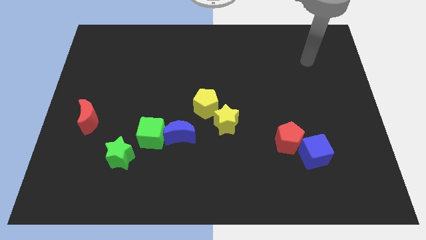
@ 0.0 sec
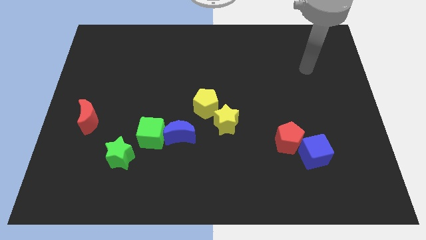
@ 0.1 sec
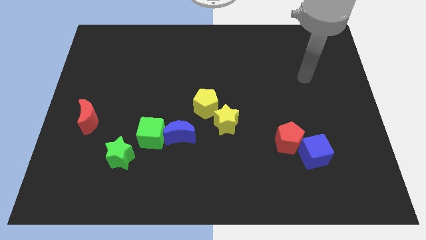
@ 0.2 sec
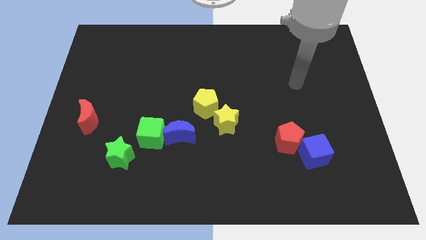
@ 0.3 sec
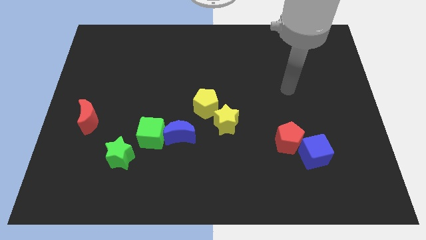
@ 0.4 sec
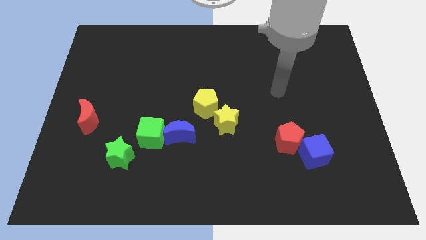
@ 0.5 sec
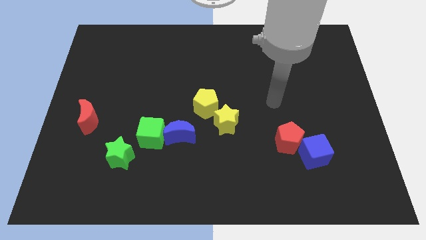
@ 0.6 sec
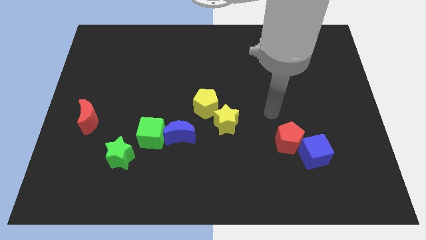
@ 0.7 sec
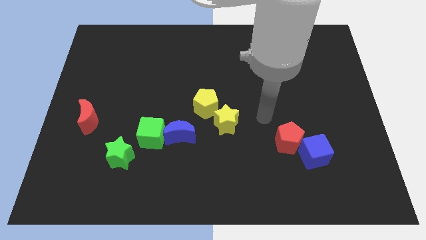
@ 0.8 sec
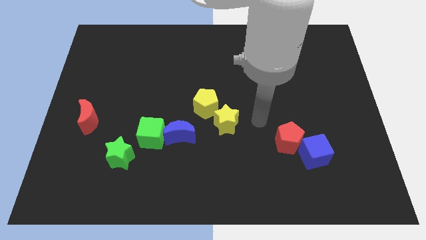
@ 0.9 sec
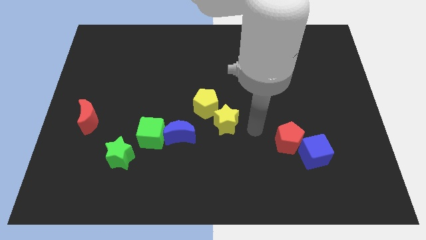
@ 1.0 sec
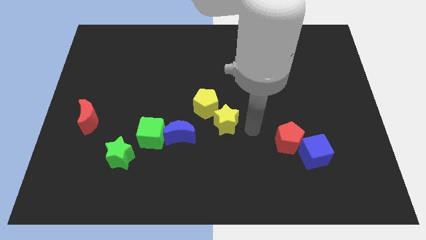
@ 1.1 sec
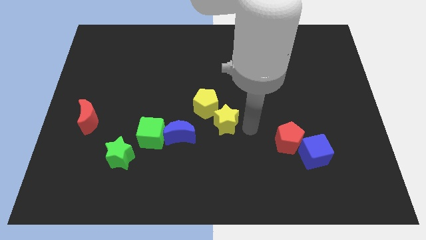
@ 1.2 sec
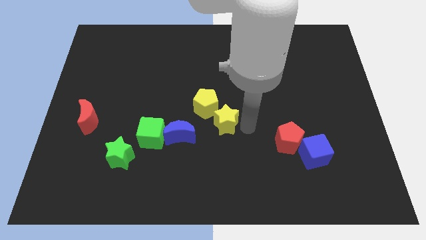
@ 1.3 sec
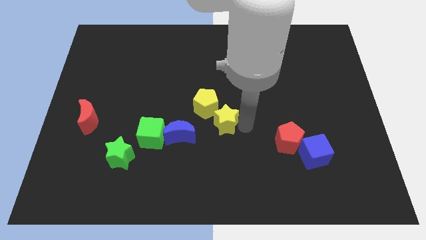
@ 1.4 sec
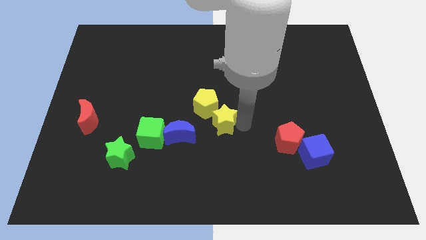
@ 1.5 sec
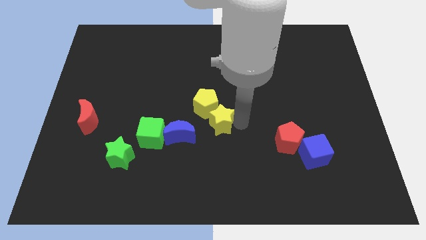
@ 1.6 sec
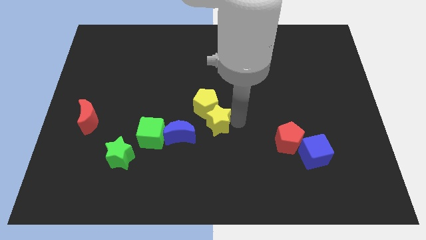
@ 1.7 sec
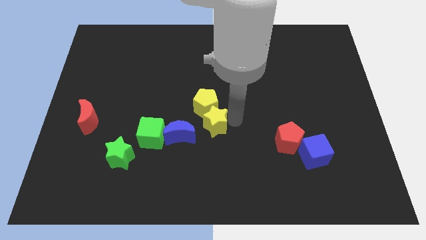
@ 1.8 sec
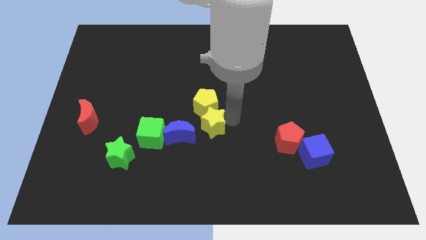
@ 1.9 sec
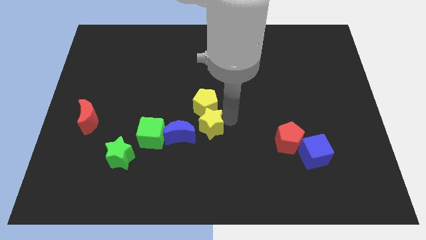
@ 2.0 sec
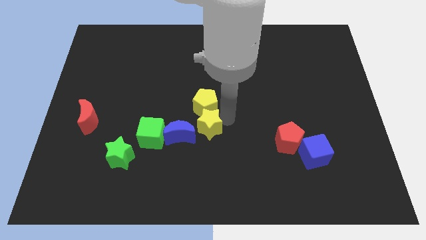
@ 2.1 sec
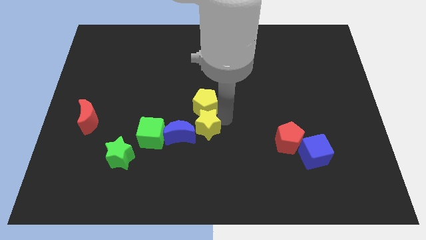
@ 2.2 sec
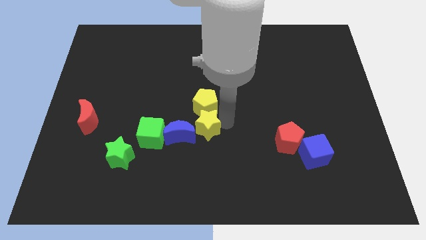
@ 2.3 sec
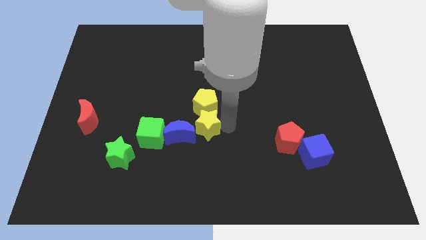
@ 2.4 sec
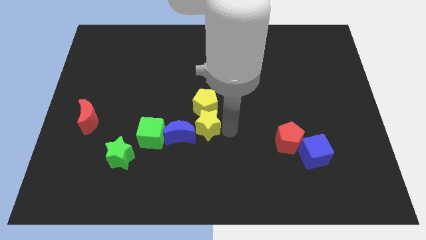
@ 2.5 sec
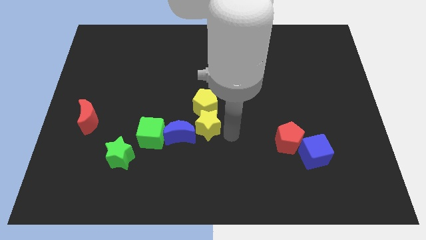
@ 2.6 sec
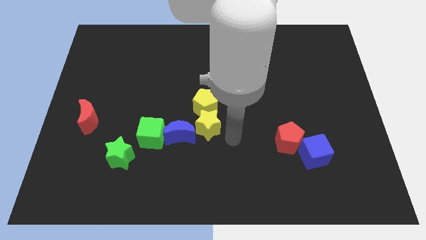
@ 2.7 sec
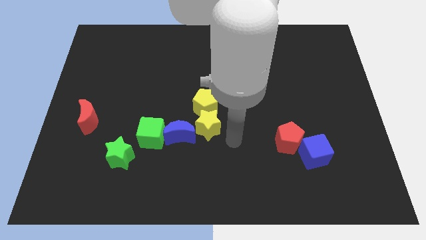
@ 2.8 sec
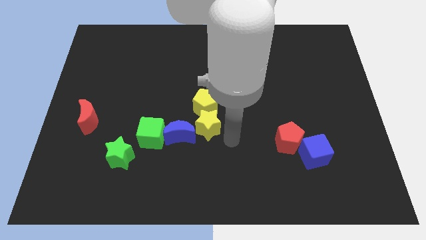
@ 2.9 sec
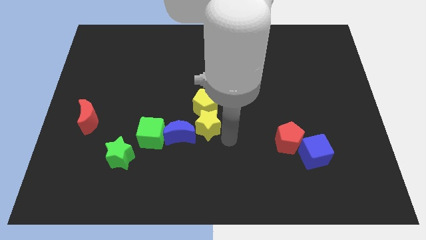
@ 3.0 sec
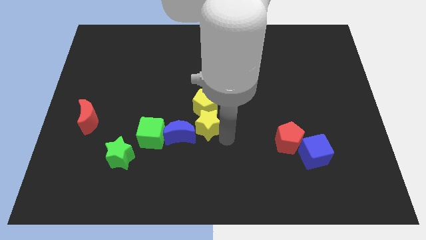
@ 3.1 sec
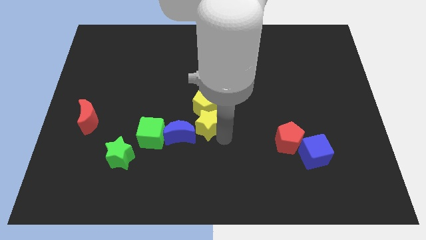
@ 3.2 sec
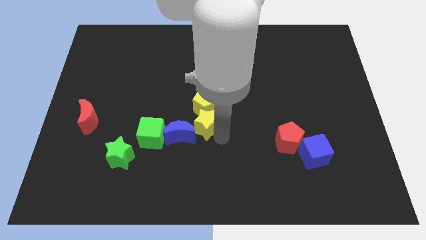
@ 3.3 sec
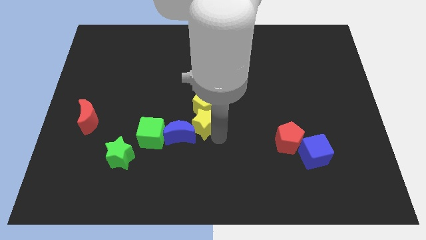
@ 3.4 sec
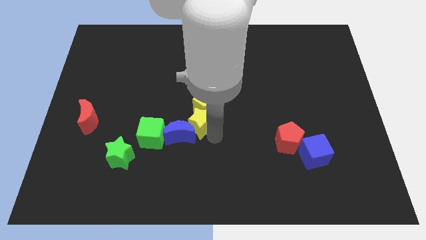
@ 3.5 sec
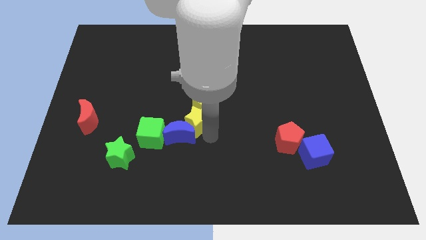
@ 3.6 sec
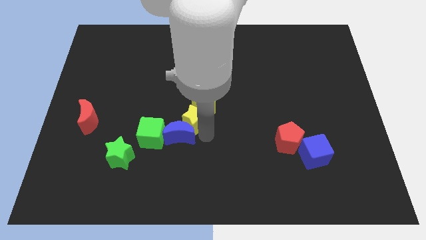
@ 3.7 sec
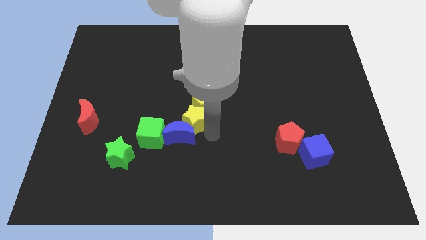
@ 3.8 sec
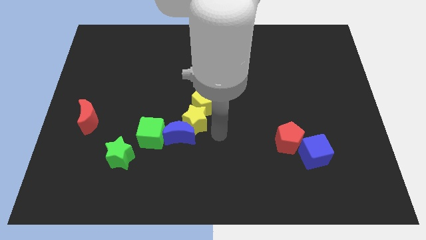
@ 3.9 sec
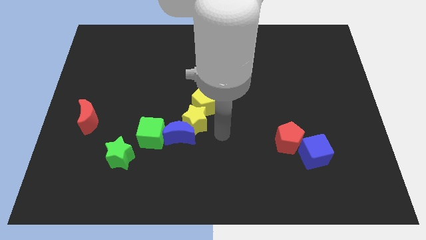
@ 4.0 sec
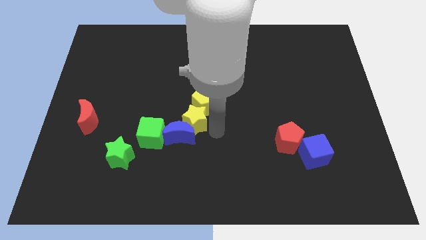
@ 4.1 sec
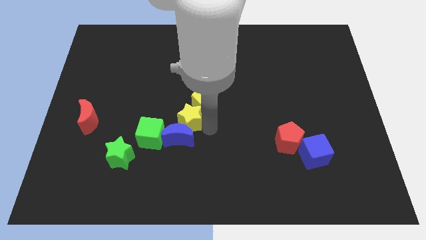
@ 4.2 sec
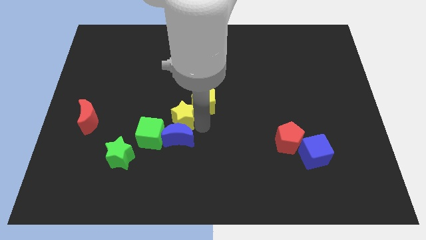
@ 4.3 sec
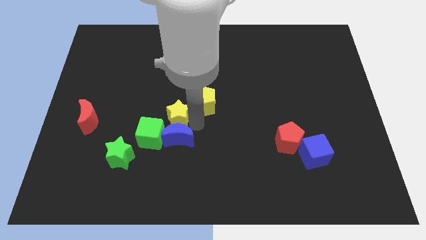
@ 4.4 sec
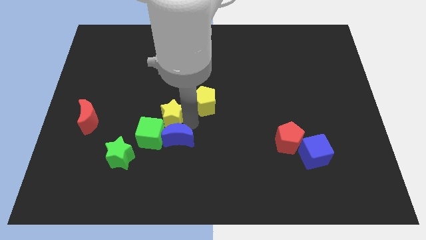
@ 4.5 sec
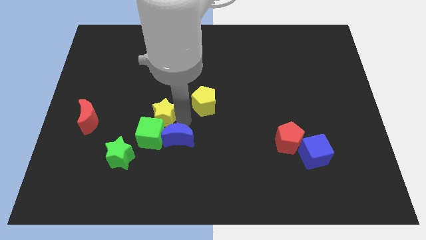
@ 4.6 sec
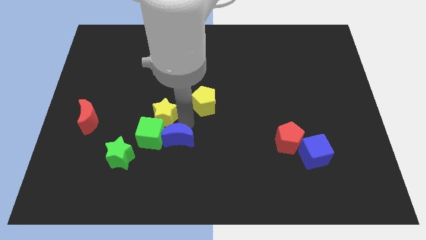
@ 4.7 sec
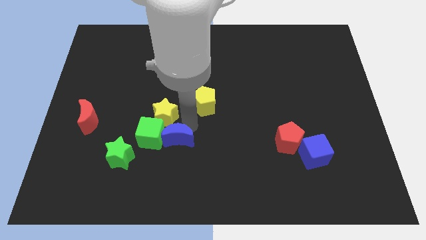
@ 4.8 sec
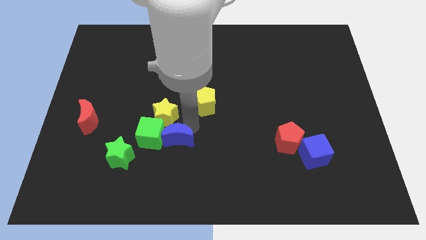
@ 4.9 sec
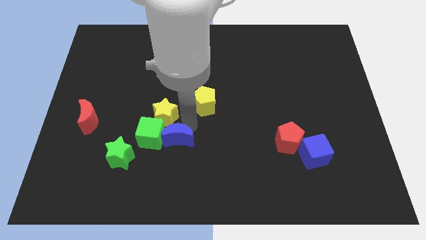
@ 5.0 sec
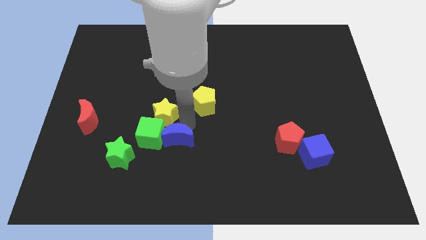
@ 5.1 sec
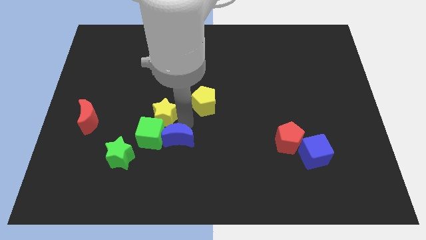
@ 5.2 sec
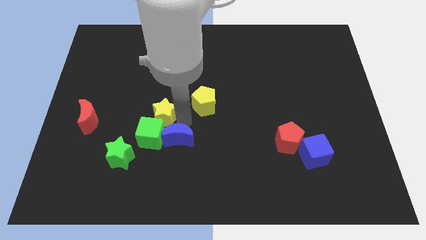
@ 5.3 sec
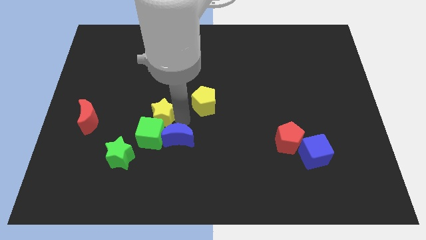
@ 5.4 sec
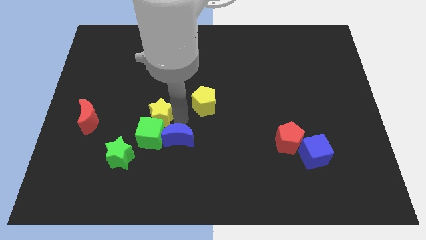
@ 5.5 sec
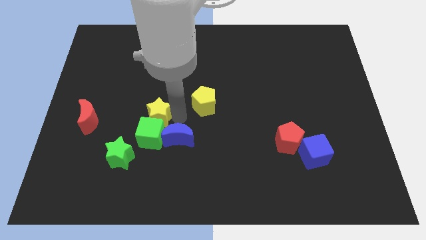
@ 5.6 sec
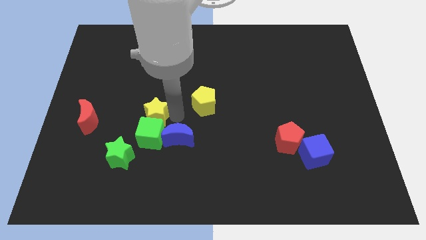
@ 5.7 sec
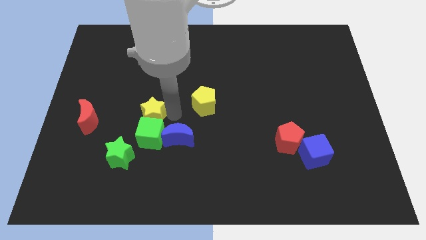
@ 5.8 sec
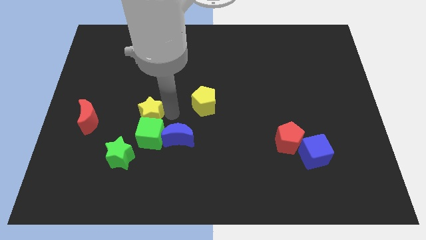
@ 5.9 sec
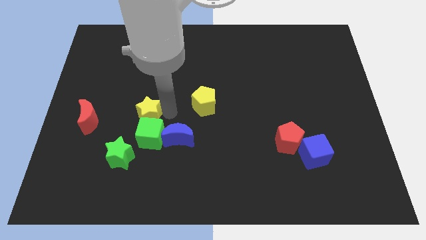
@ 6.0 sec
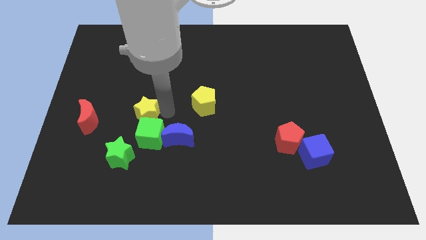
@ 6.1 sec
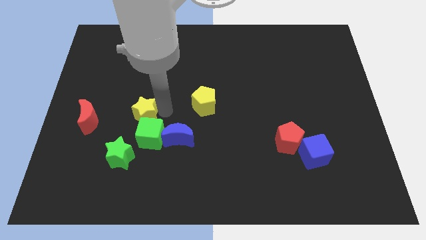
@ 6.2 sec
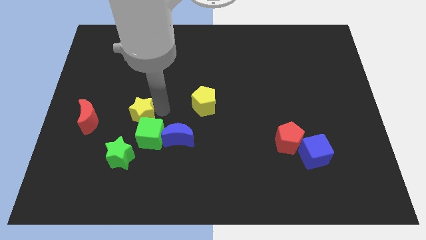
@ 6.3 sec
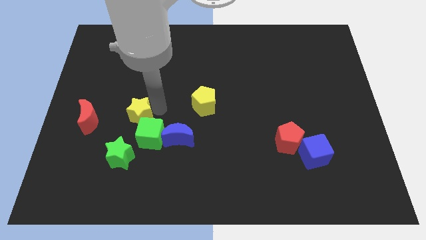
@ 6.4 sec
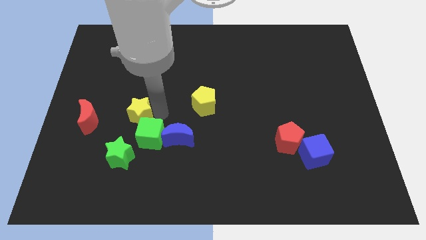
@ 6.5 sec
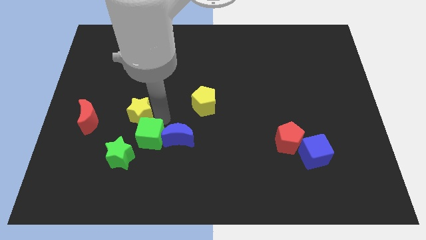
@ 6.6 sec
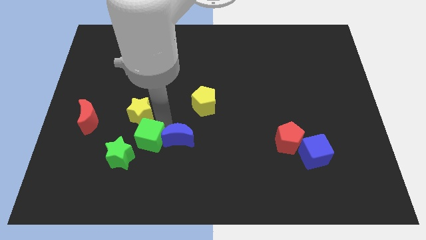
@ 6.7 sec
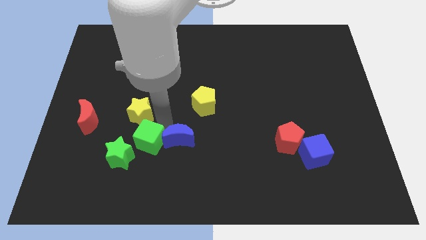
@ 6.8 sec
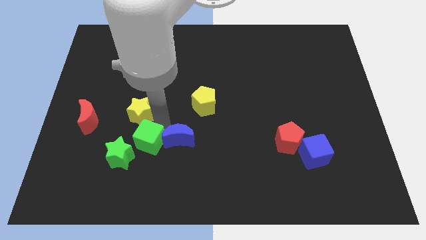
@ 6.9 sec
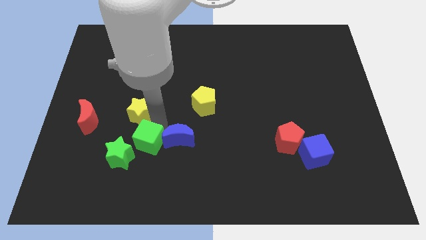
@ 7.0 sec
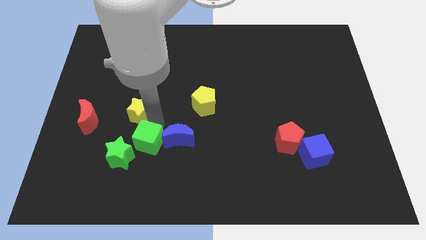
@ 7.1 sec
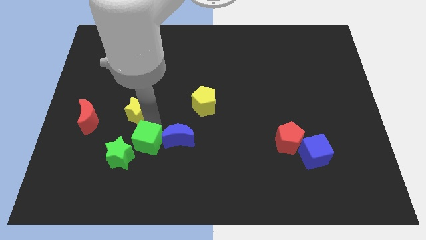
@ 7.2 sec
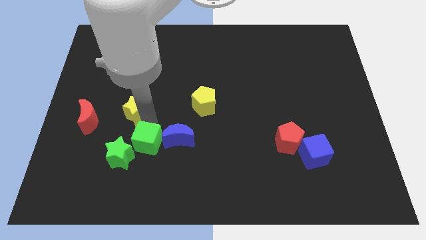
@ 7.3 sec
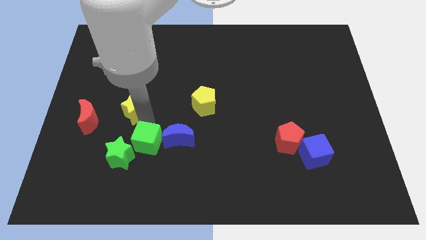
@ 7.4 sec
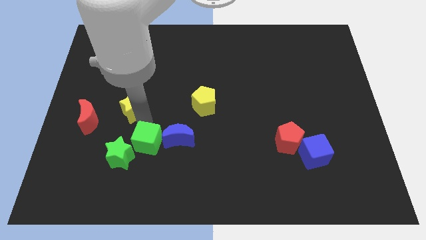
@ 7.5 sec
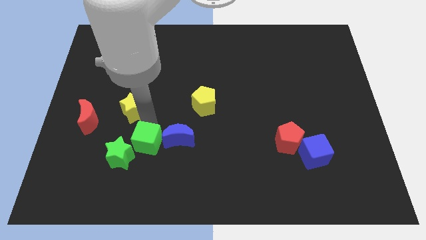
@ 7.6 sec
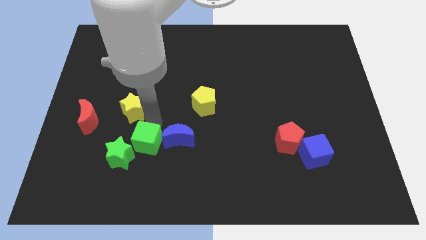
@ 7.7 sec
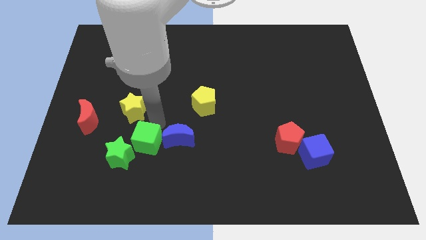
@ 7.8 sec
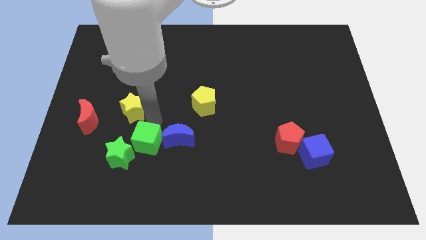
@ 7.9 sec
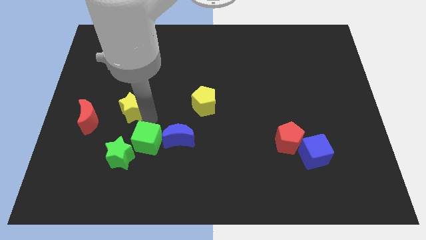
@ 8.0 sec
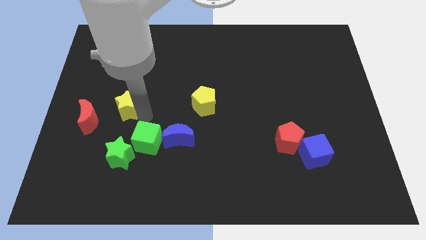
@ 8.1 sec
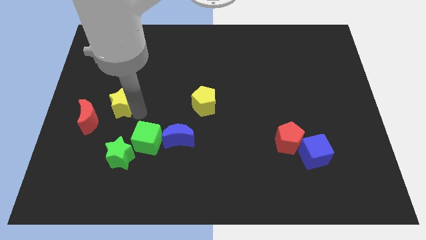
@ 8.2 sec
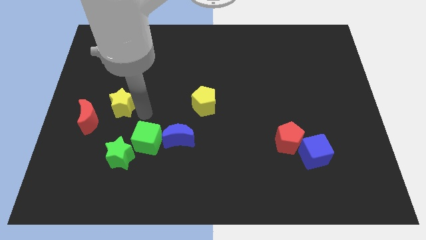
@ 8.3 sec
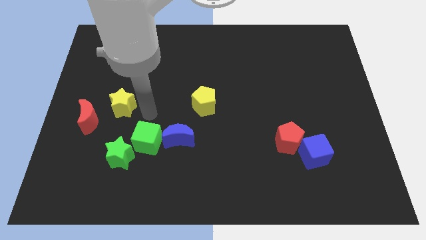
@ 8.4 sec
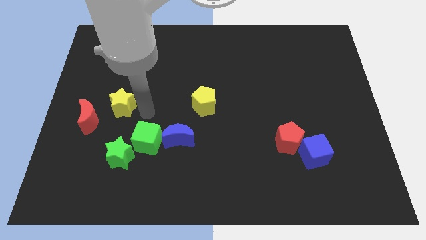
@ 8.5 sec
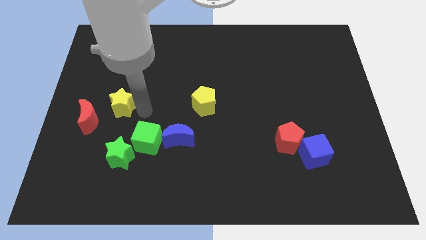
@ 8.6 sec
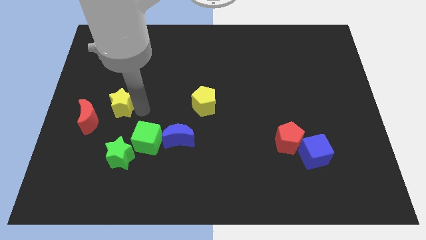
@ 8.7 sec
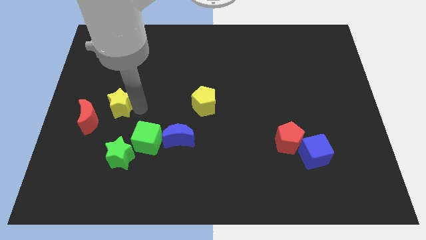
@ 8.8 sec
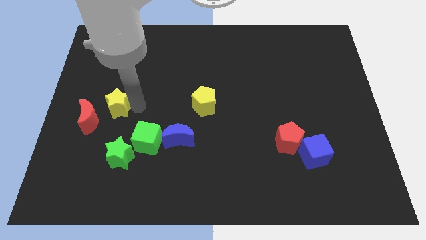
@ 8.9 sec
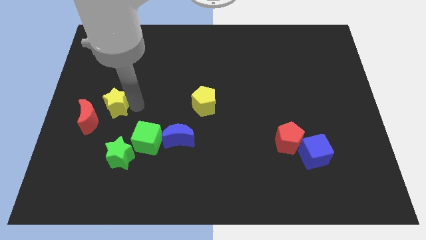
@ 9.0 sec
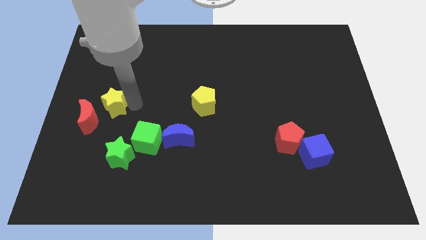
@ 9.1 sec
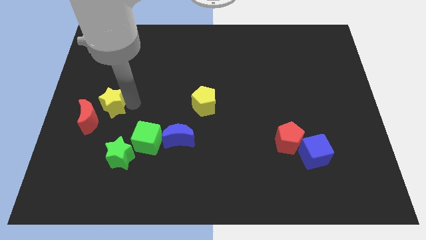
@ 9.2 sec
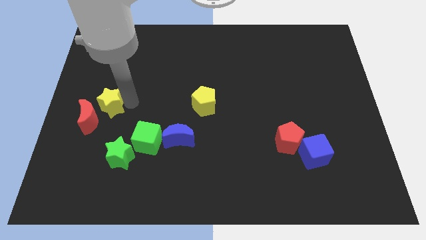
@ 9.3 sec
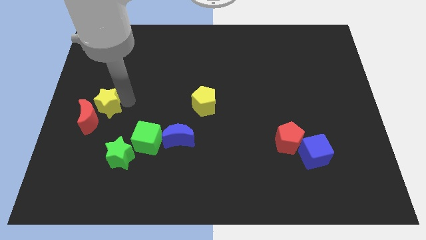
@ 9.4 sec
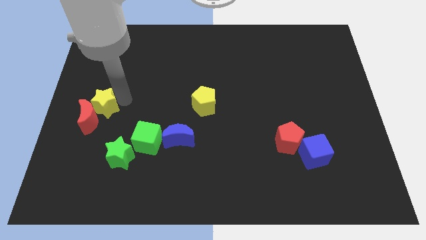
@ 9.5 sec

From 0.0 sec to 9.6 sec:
put the yellow star to the left side
